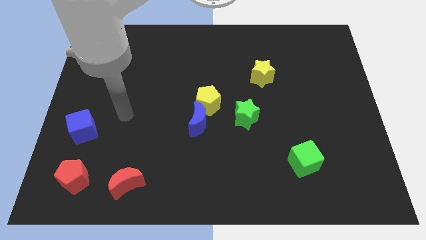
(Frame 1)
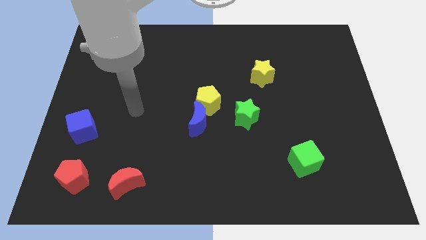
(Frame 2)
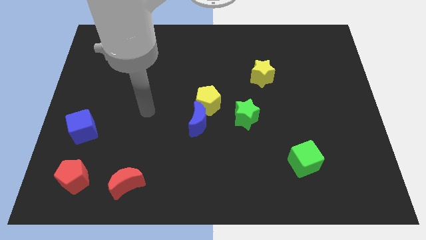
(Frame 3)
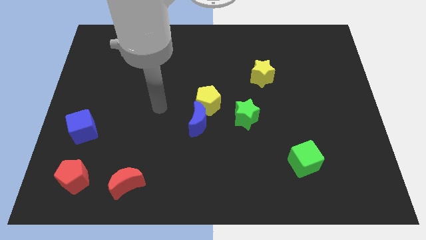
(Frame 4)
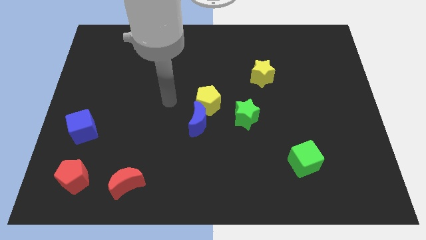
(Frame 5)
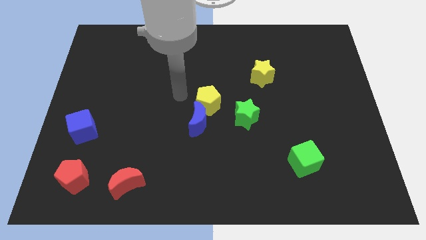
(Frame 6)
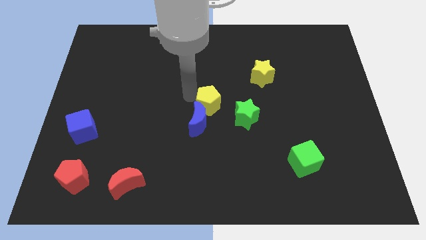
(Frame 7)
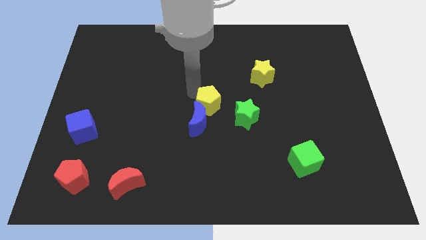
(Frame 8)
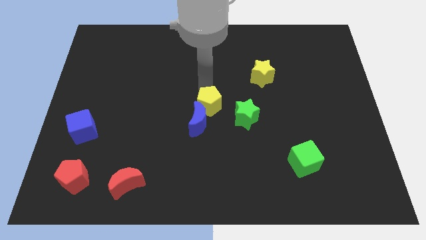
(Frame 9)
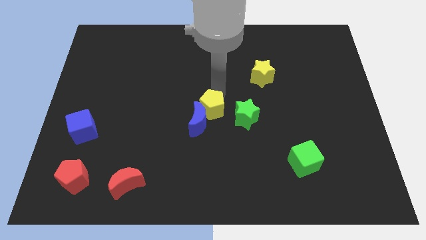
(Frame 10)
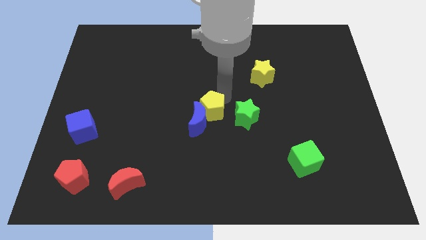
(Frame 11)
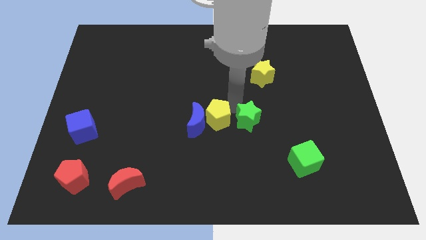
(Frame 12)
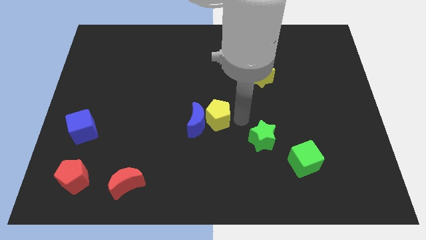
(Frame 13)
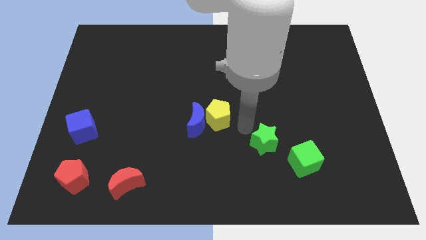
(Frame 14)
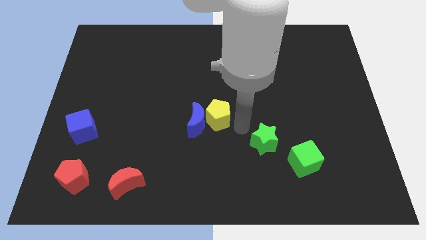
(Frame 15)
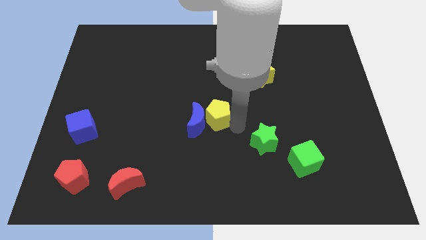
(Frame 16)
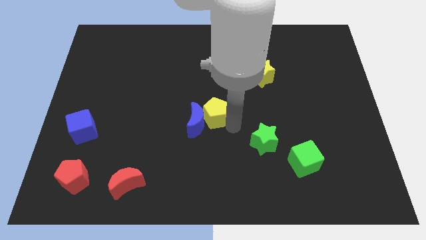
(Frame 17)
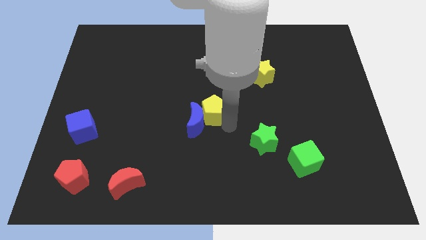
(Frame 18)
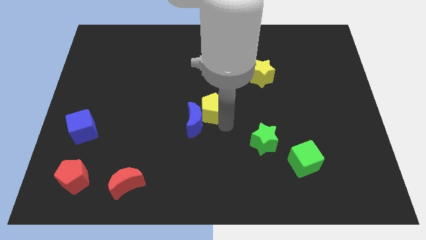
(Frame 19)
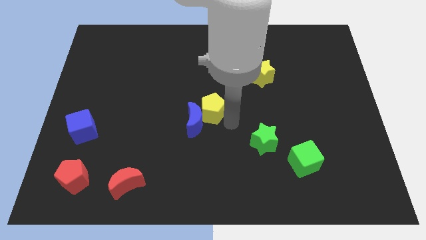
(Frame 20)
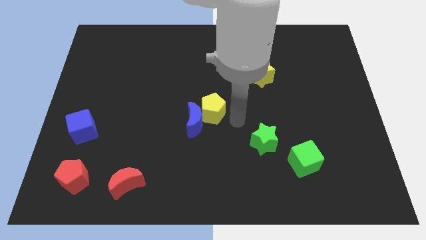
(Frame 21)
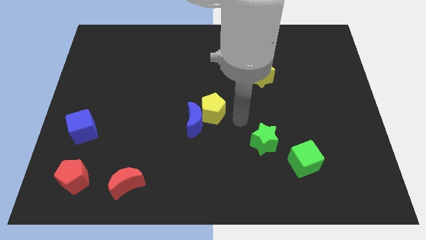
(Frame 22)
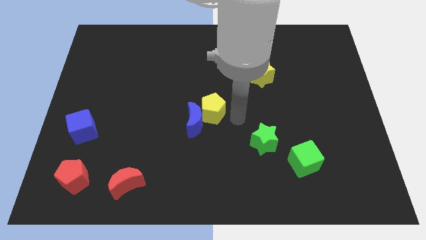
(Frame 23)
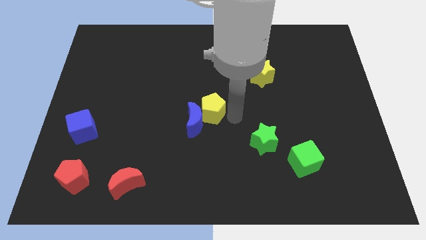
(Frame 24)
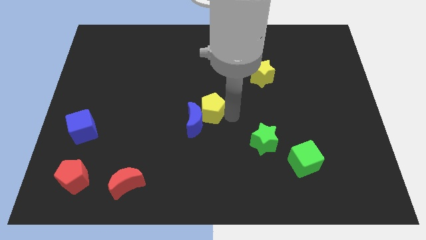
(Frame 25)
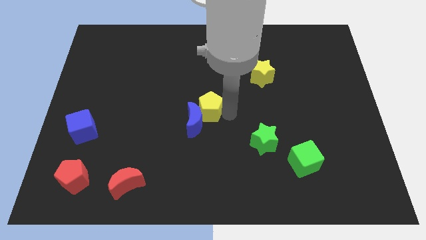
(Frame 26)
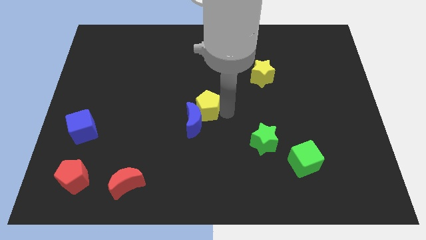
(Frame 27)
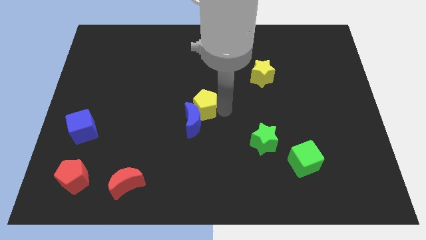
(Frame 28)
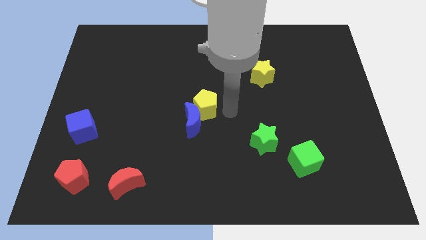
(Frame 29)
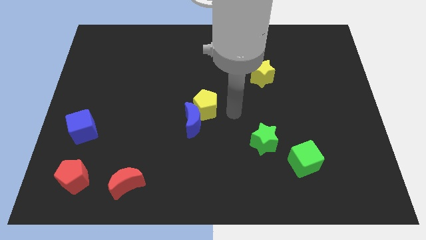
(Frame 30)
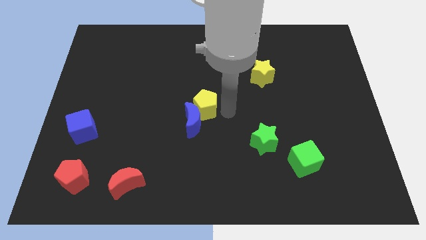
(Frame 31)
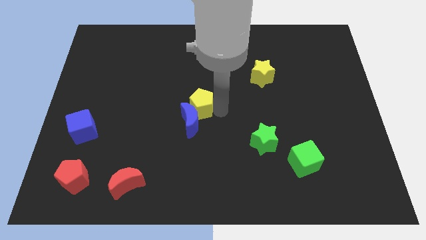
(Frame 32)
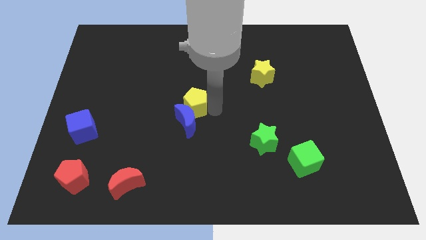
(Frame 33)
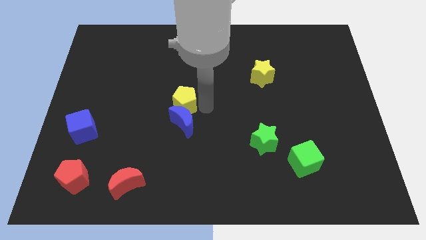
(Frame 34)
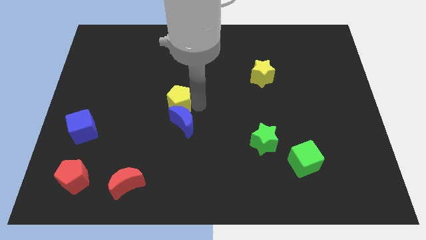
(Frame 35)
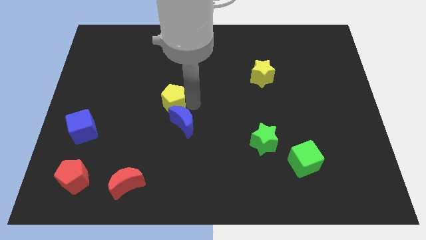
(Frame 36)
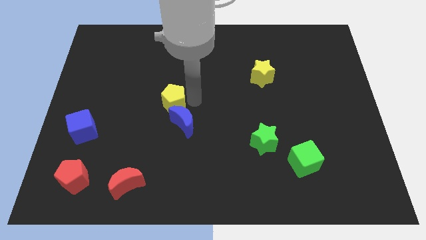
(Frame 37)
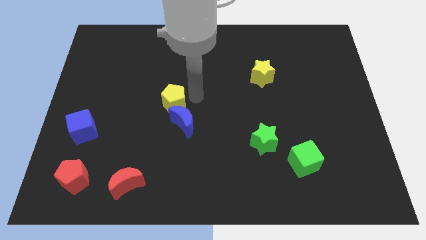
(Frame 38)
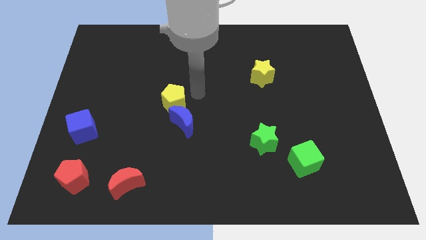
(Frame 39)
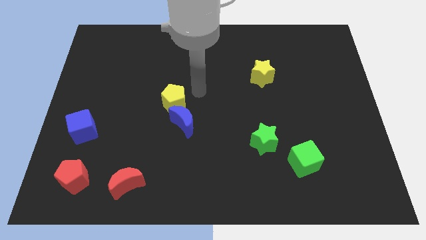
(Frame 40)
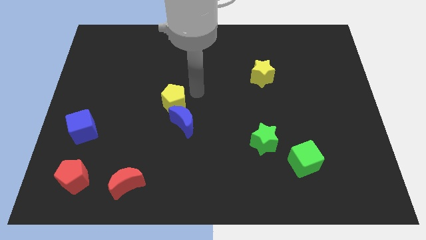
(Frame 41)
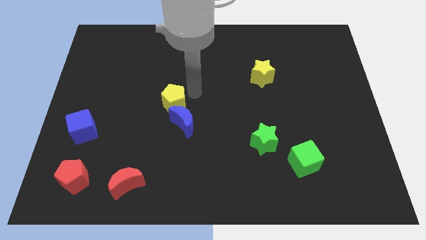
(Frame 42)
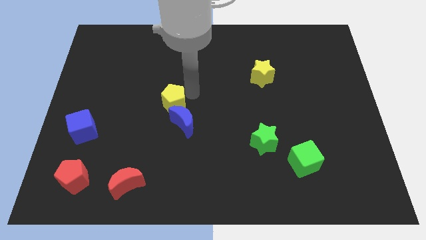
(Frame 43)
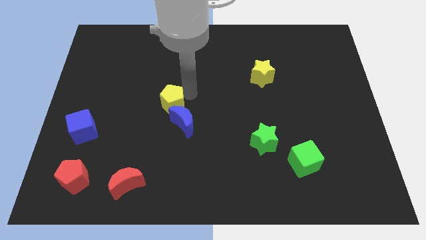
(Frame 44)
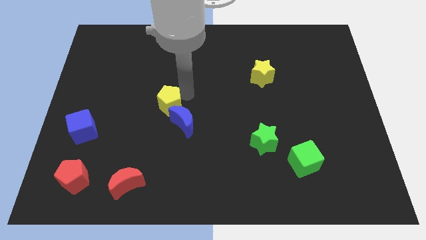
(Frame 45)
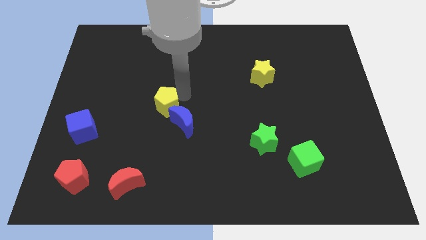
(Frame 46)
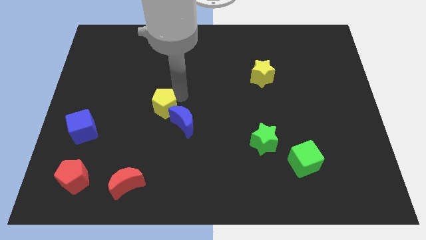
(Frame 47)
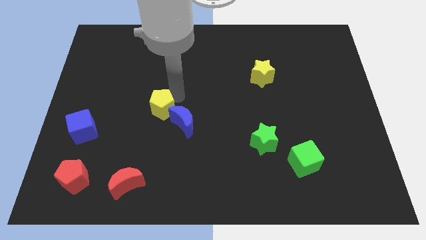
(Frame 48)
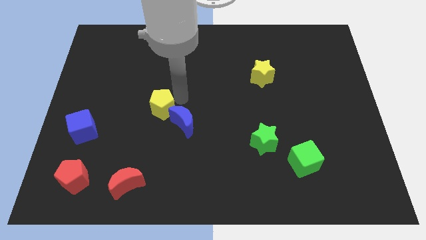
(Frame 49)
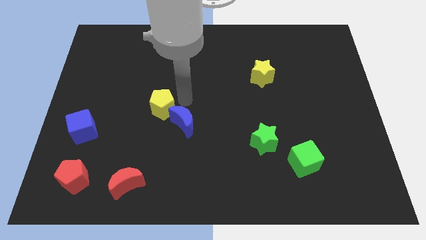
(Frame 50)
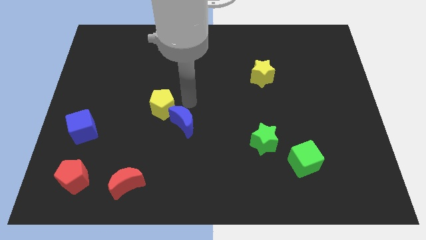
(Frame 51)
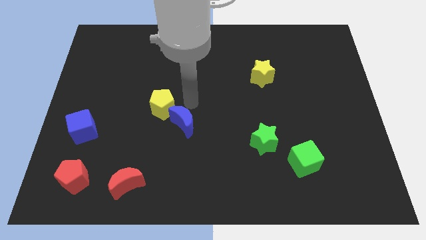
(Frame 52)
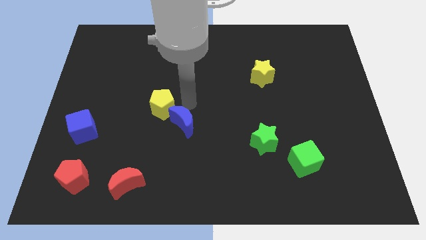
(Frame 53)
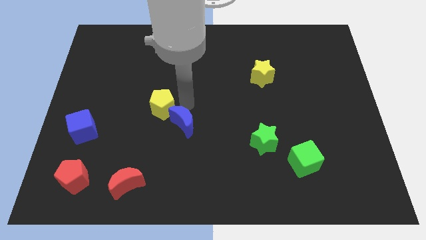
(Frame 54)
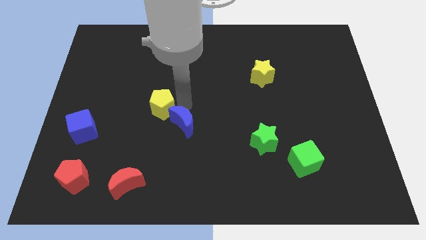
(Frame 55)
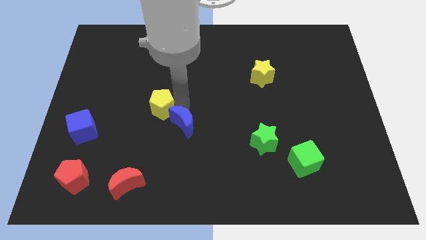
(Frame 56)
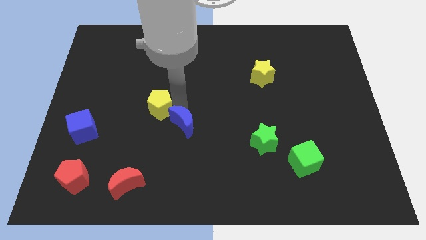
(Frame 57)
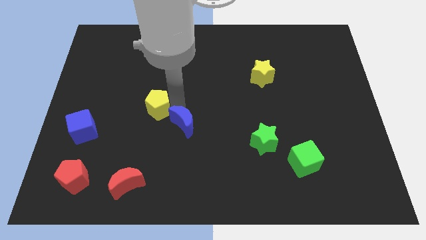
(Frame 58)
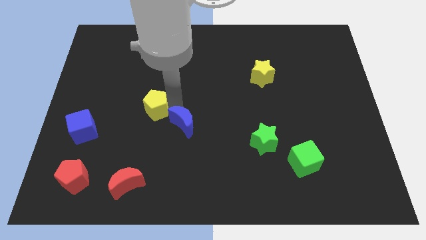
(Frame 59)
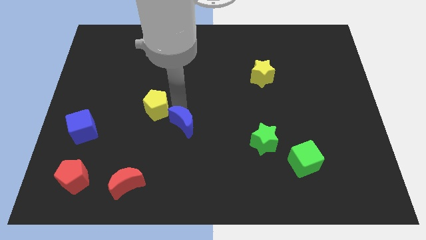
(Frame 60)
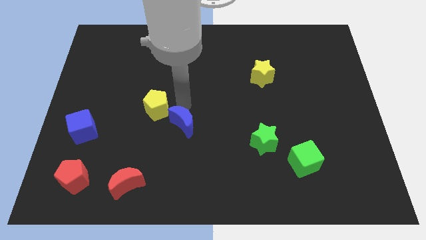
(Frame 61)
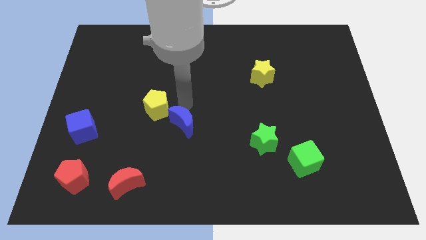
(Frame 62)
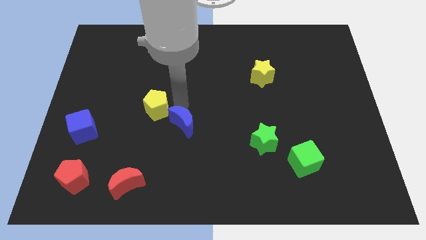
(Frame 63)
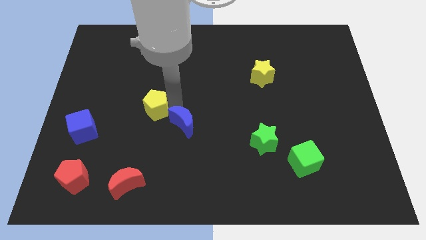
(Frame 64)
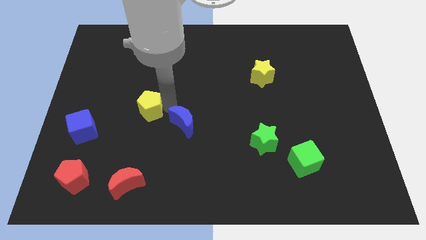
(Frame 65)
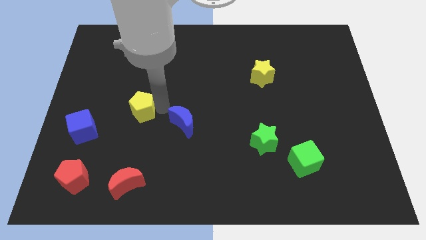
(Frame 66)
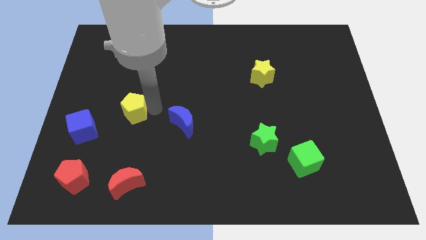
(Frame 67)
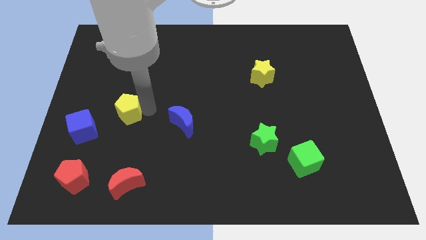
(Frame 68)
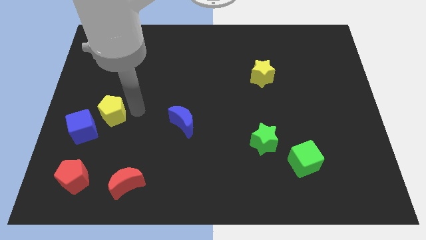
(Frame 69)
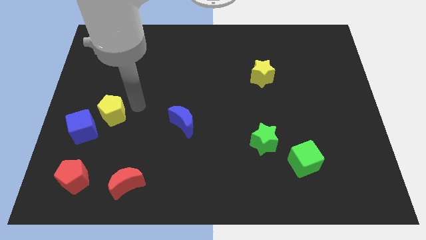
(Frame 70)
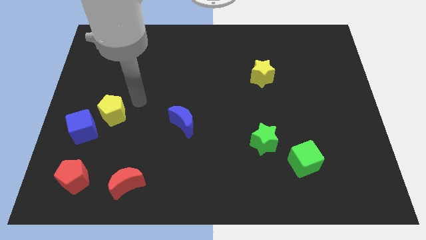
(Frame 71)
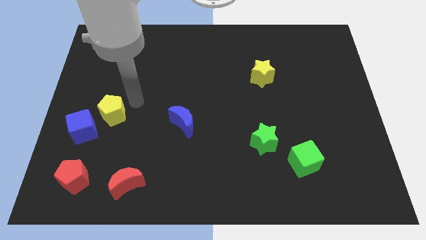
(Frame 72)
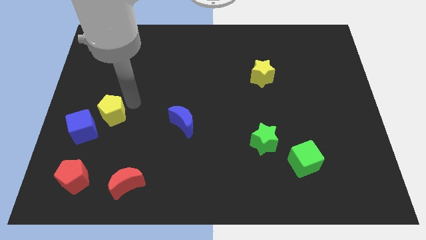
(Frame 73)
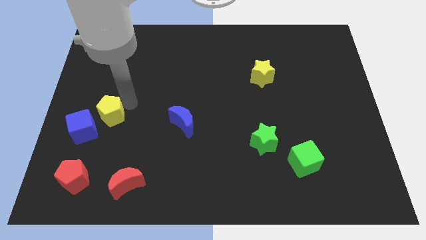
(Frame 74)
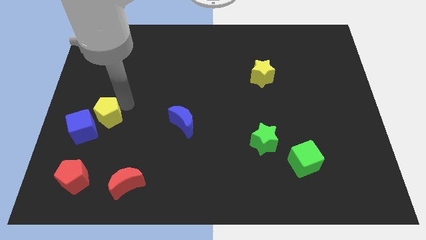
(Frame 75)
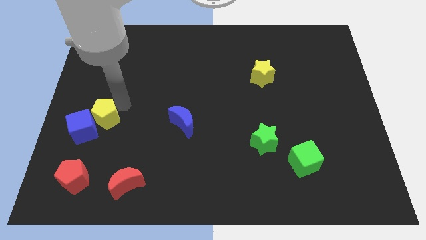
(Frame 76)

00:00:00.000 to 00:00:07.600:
put the yellow pentagon to the blue cube
